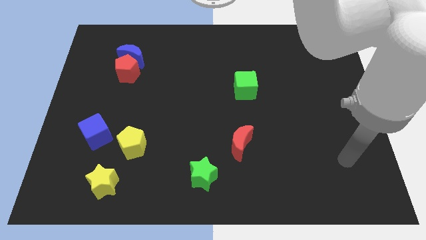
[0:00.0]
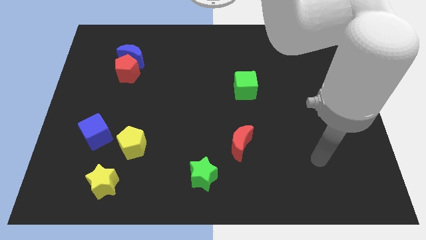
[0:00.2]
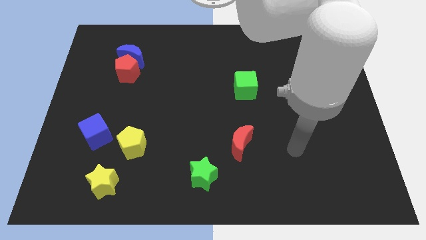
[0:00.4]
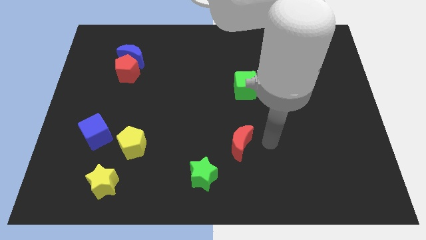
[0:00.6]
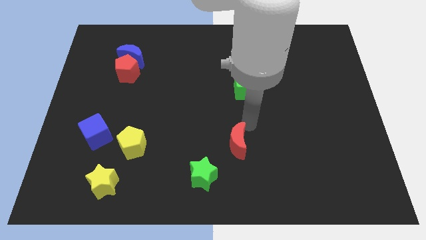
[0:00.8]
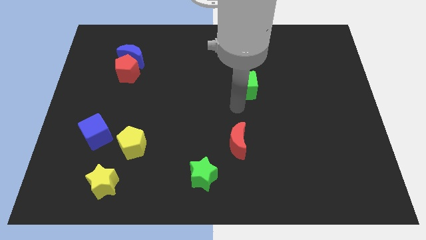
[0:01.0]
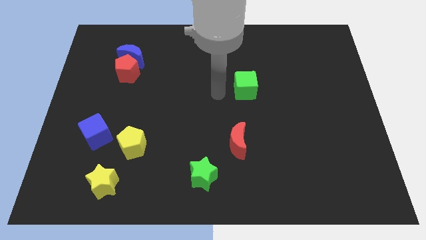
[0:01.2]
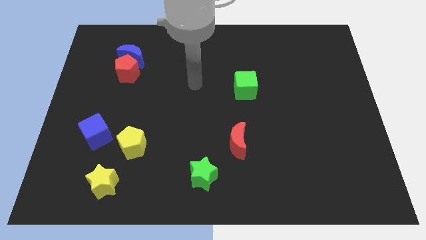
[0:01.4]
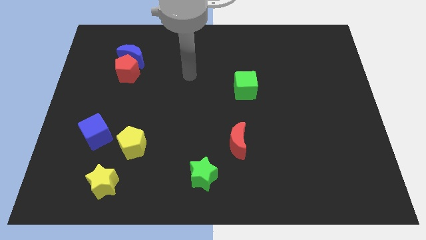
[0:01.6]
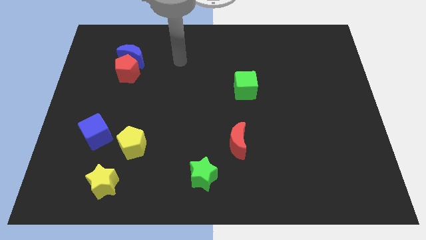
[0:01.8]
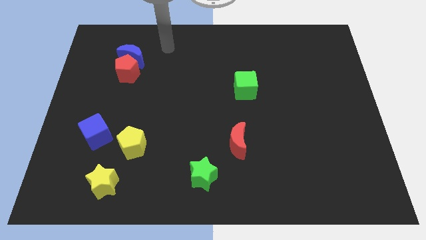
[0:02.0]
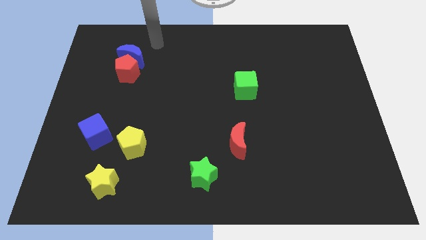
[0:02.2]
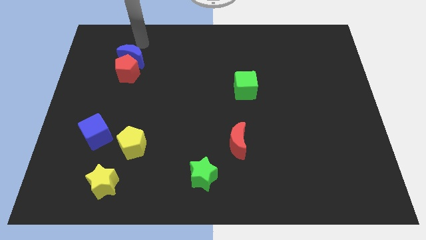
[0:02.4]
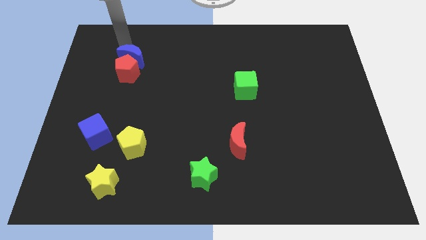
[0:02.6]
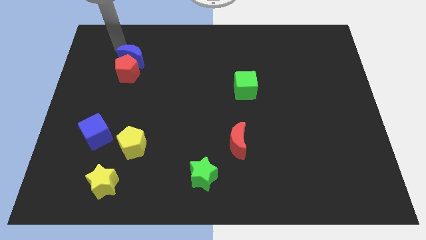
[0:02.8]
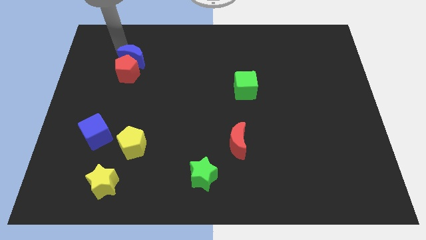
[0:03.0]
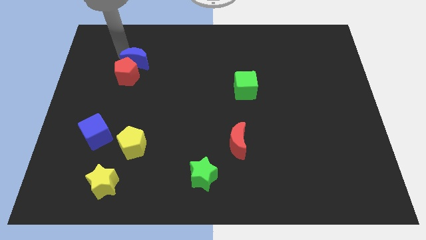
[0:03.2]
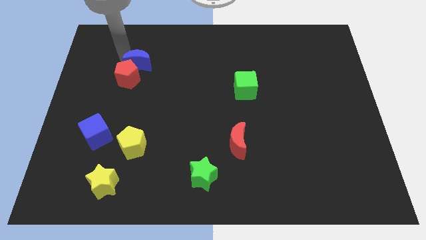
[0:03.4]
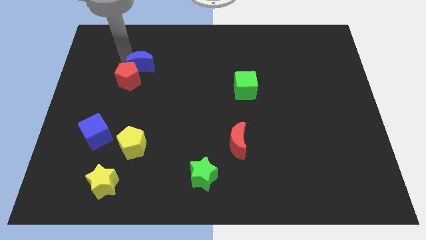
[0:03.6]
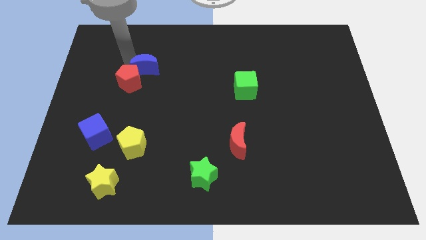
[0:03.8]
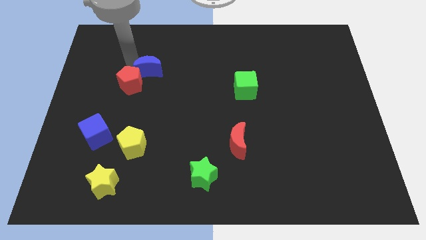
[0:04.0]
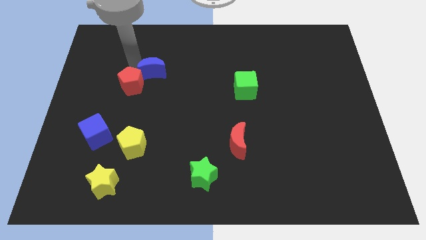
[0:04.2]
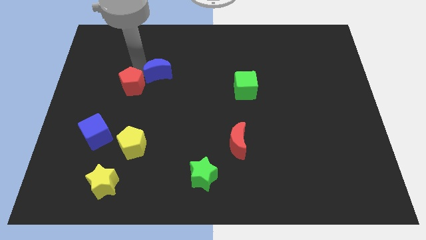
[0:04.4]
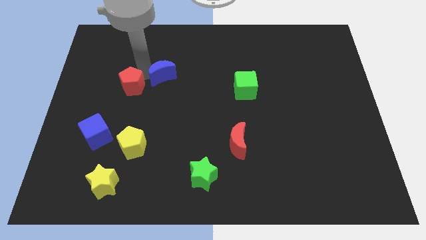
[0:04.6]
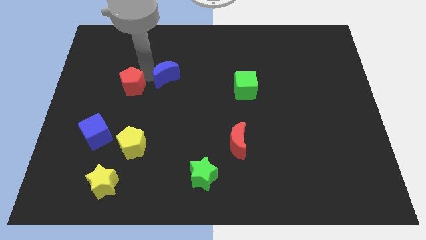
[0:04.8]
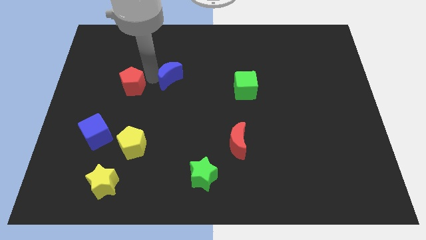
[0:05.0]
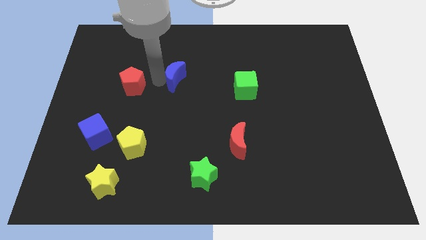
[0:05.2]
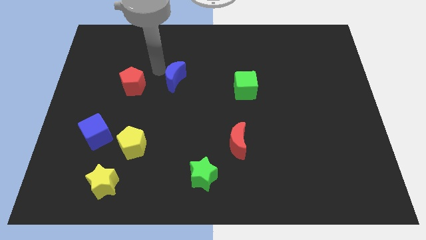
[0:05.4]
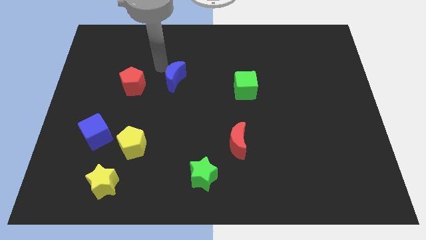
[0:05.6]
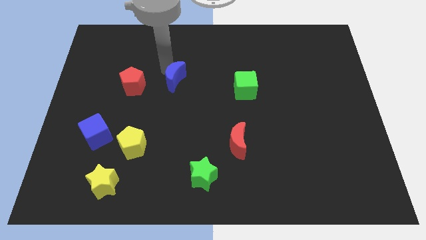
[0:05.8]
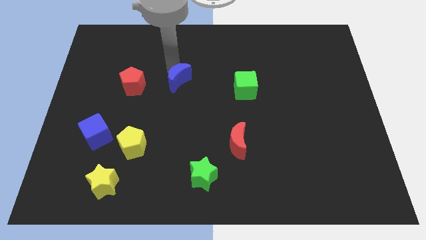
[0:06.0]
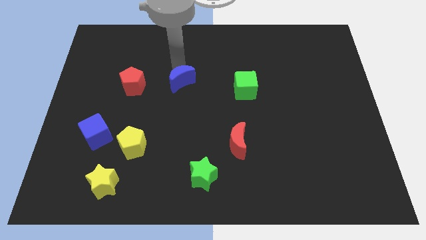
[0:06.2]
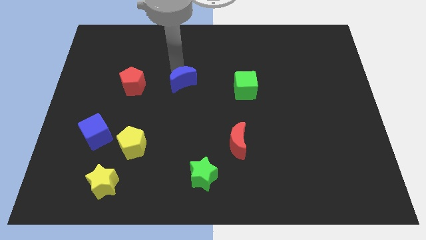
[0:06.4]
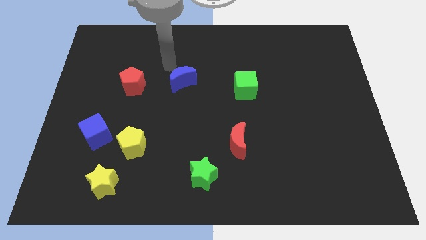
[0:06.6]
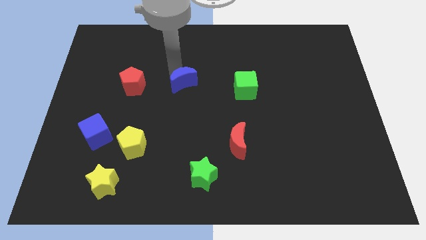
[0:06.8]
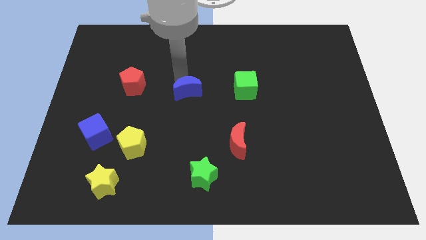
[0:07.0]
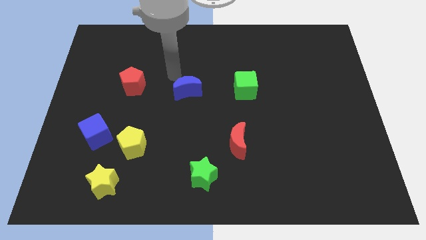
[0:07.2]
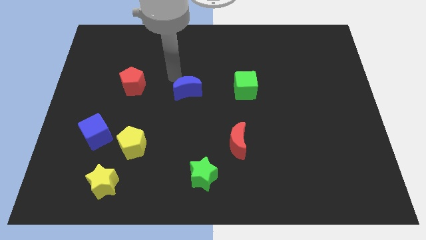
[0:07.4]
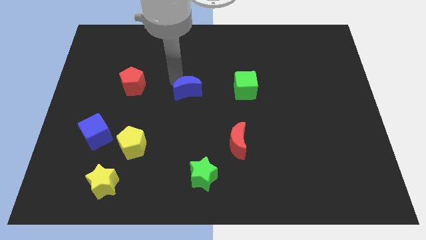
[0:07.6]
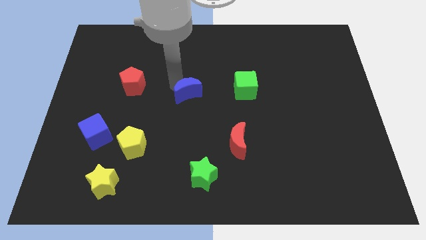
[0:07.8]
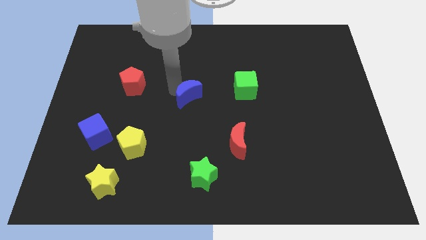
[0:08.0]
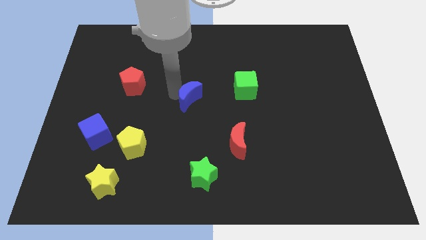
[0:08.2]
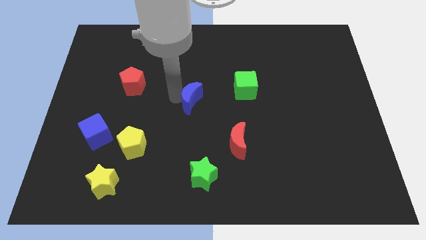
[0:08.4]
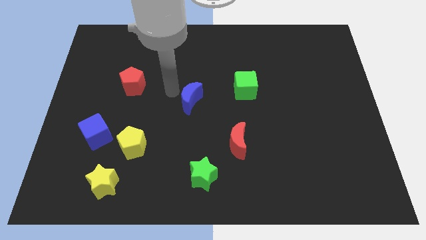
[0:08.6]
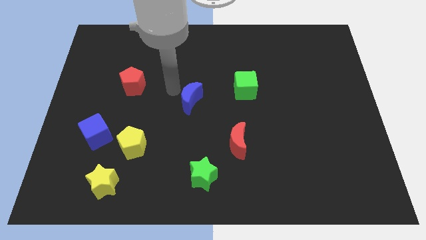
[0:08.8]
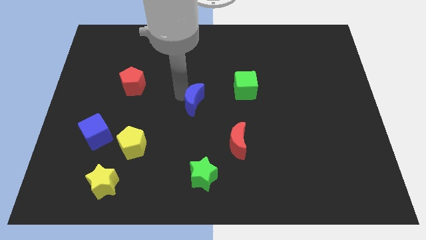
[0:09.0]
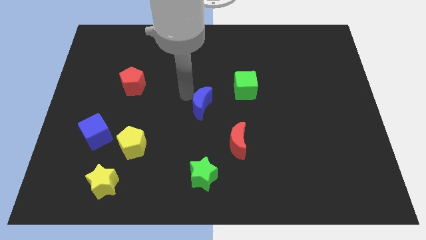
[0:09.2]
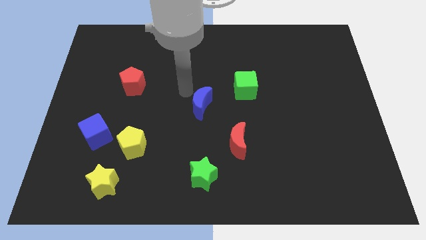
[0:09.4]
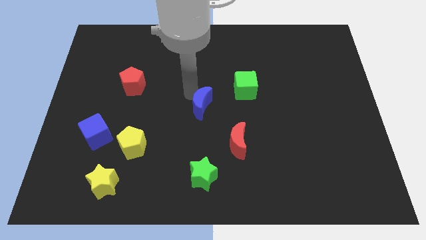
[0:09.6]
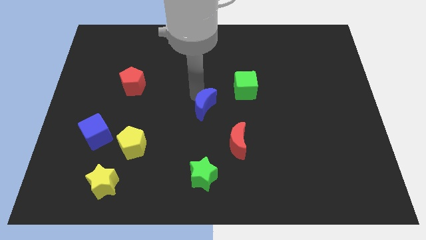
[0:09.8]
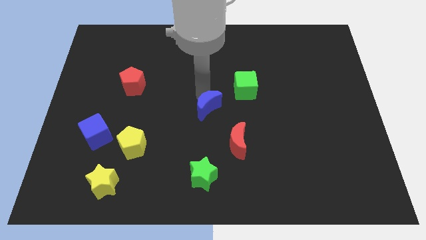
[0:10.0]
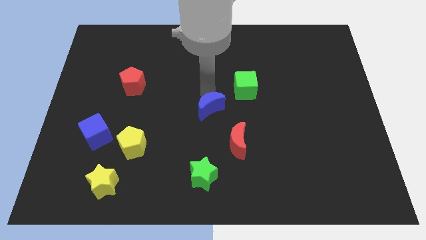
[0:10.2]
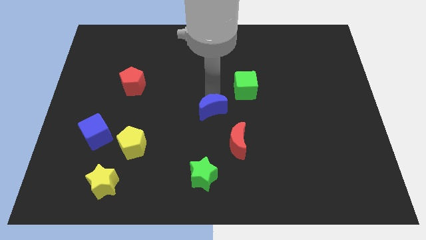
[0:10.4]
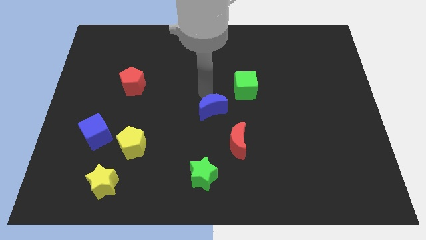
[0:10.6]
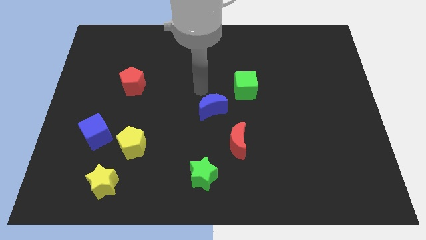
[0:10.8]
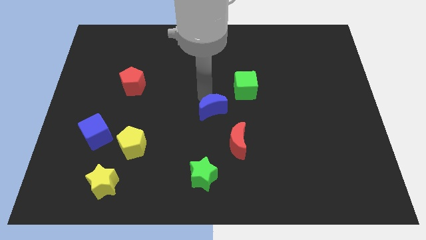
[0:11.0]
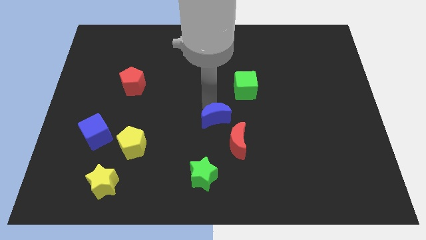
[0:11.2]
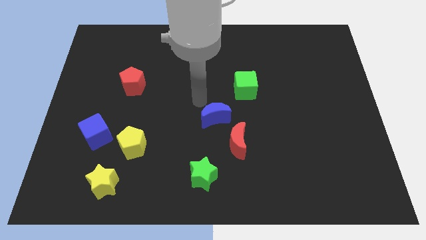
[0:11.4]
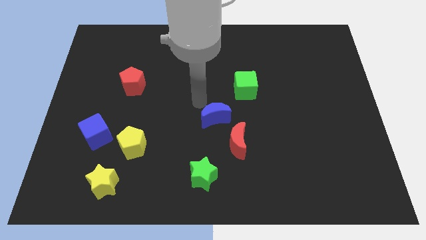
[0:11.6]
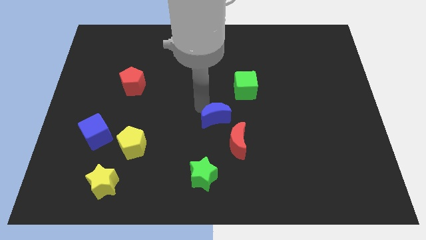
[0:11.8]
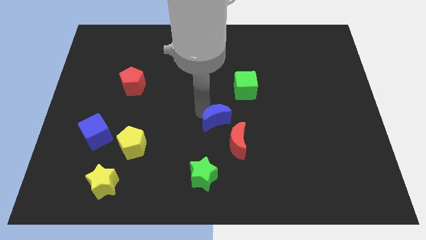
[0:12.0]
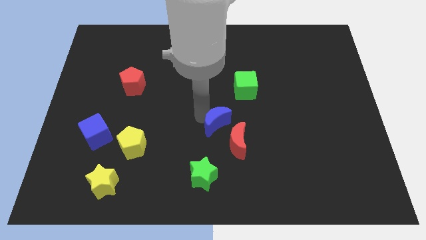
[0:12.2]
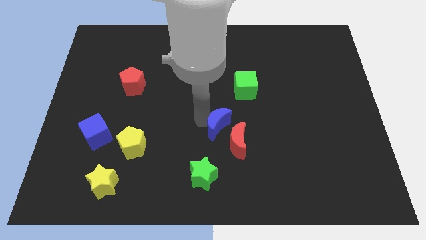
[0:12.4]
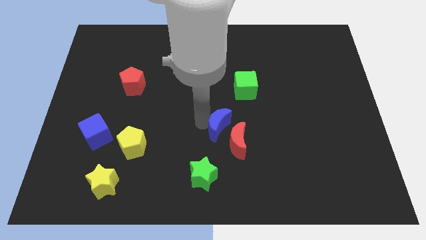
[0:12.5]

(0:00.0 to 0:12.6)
put the blue moon next to the red moon
